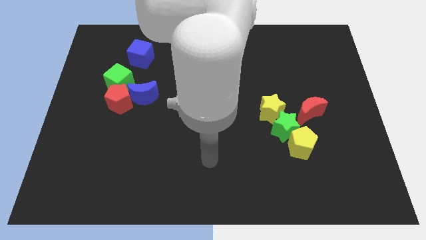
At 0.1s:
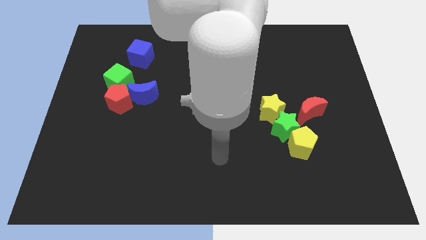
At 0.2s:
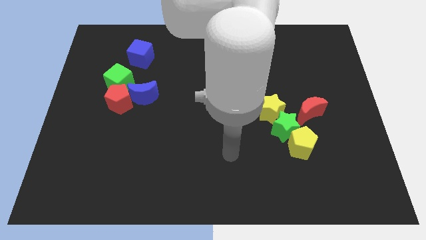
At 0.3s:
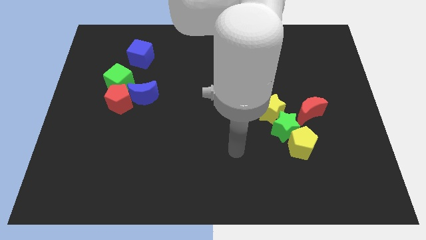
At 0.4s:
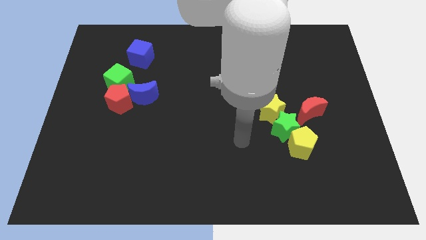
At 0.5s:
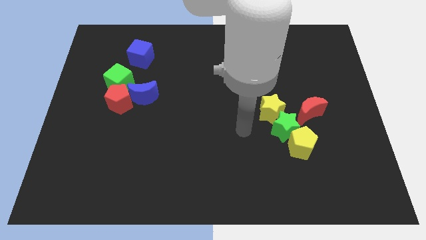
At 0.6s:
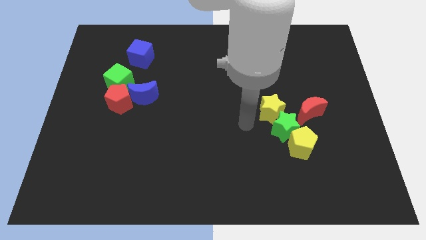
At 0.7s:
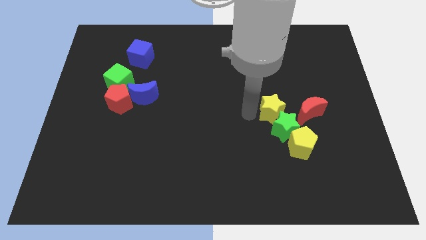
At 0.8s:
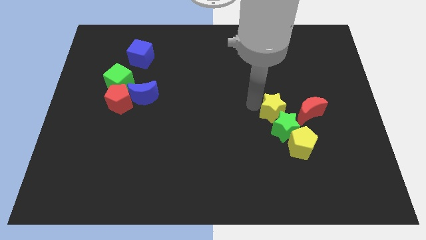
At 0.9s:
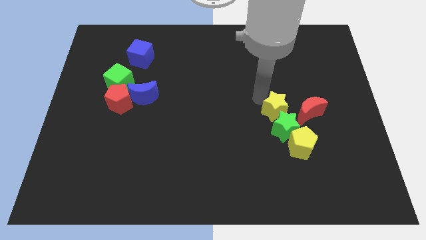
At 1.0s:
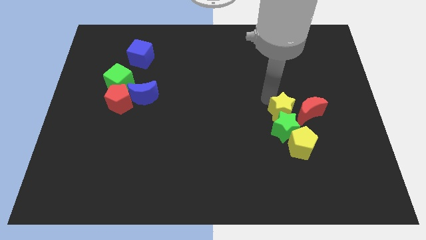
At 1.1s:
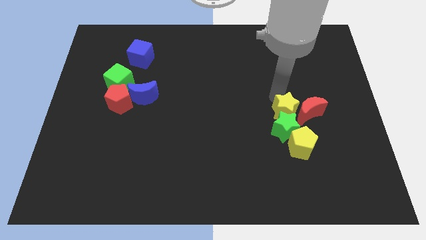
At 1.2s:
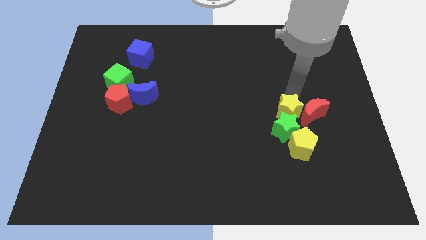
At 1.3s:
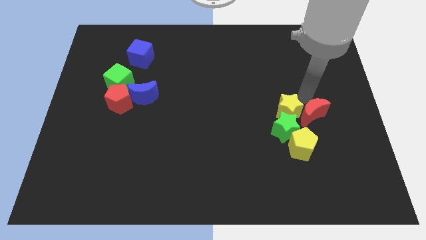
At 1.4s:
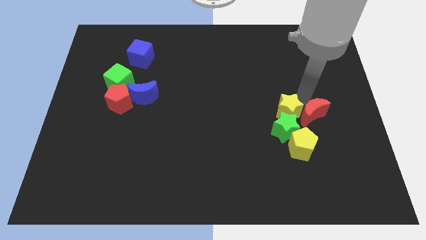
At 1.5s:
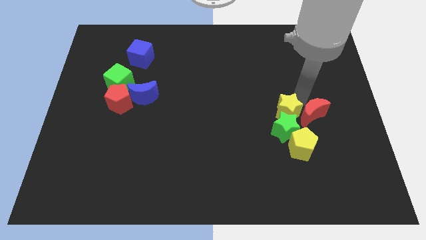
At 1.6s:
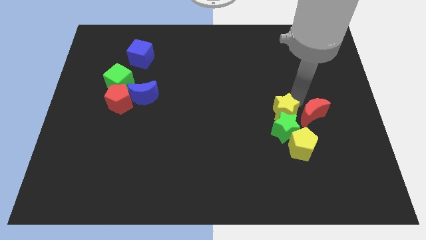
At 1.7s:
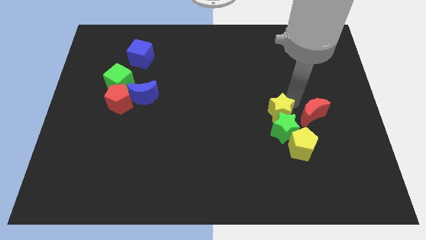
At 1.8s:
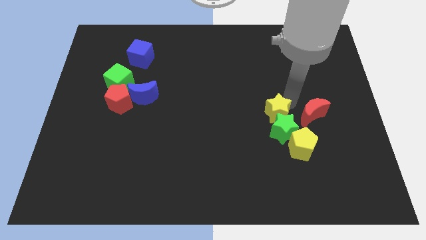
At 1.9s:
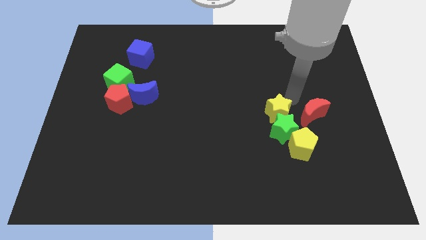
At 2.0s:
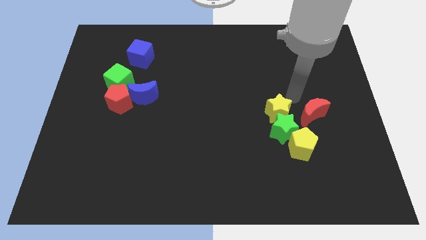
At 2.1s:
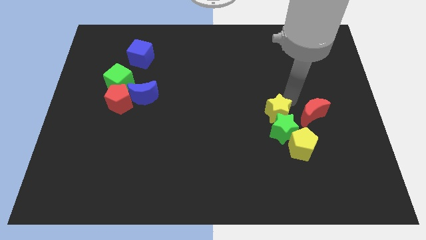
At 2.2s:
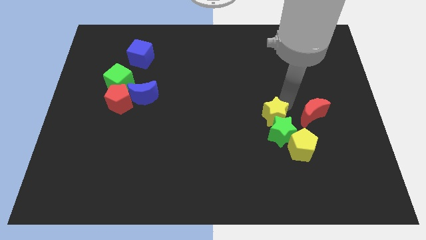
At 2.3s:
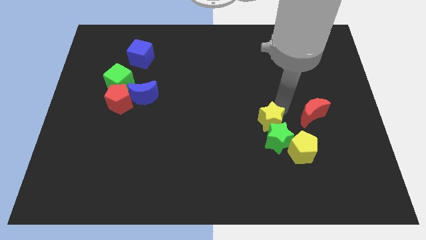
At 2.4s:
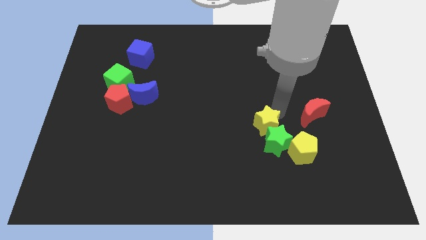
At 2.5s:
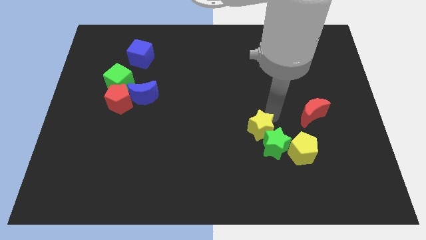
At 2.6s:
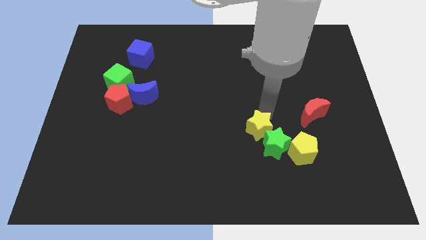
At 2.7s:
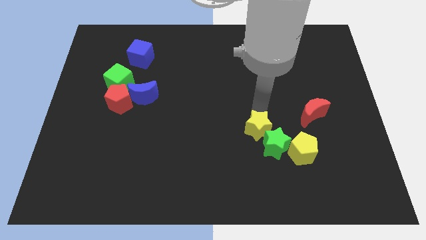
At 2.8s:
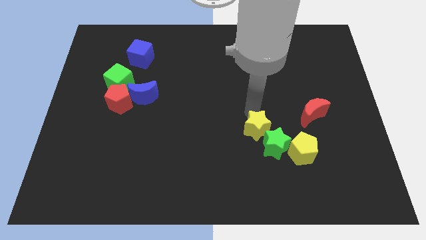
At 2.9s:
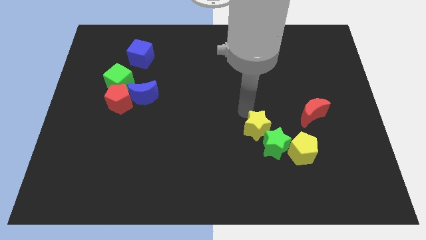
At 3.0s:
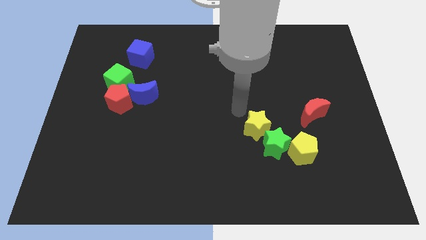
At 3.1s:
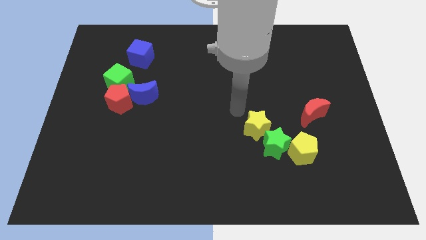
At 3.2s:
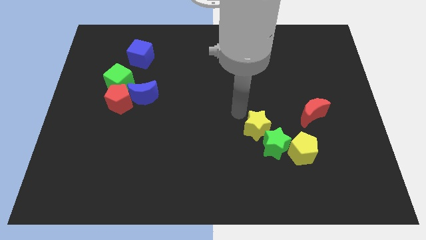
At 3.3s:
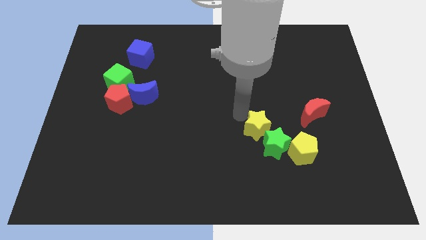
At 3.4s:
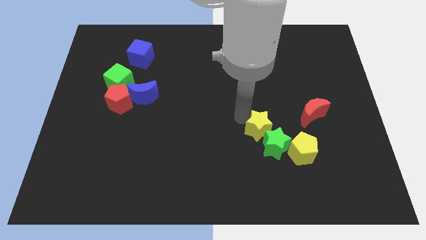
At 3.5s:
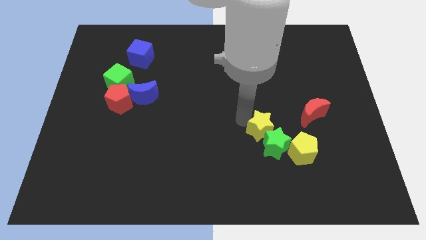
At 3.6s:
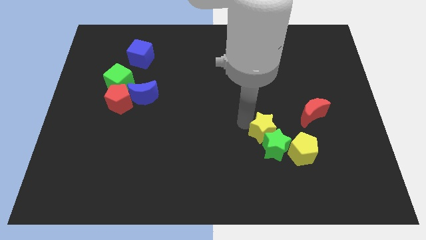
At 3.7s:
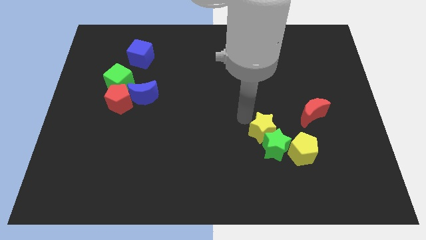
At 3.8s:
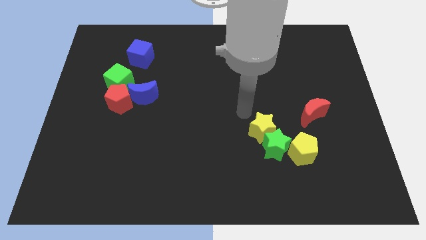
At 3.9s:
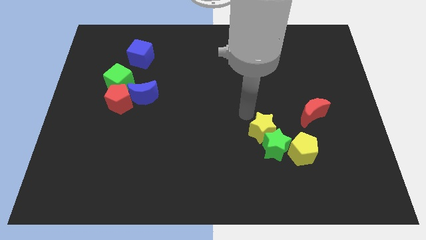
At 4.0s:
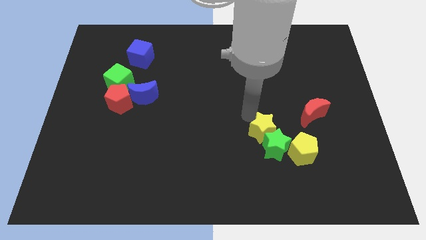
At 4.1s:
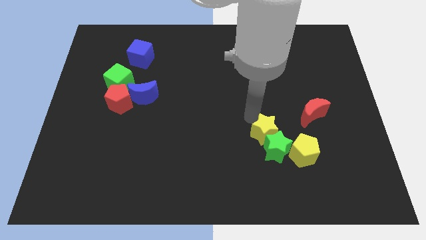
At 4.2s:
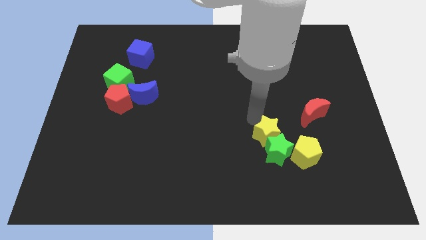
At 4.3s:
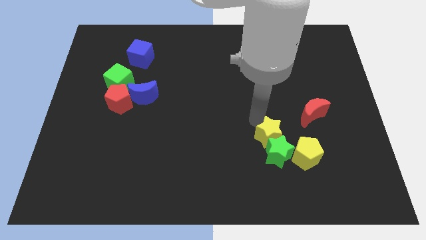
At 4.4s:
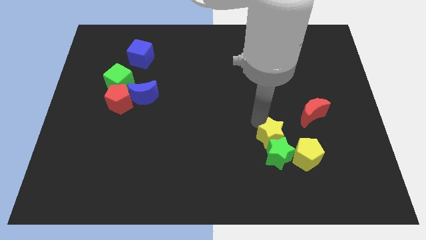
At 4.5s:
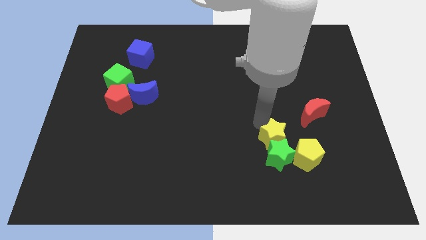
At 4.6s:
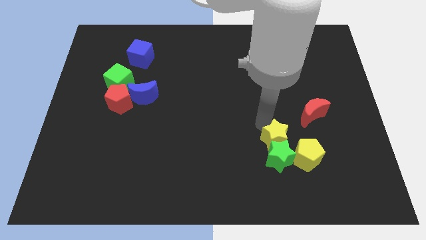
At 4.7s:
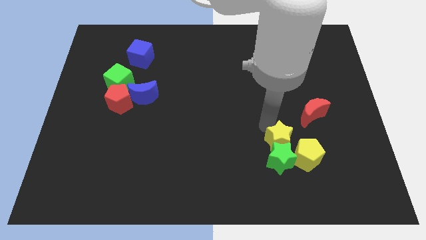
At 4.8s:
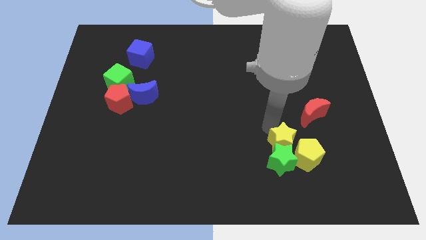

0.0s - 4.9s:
move the yellow star close to the yellow pentagon

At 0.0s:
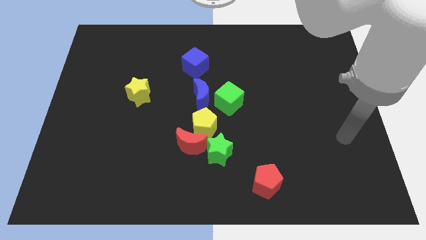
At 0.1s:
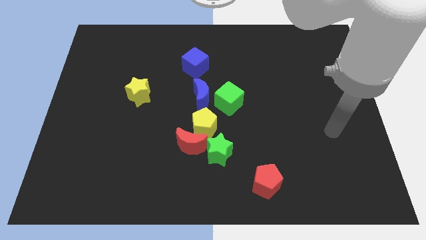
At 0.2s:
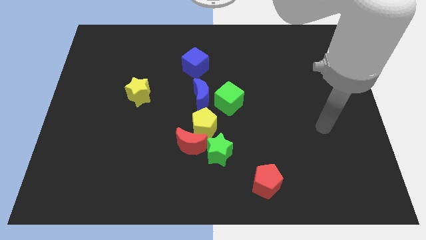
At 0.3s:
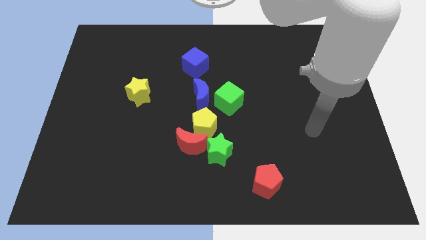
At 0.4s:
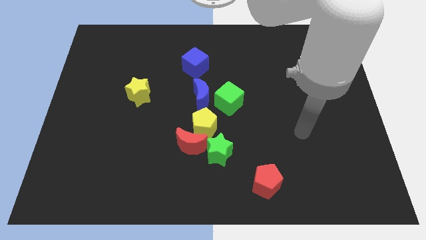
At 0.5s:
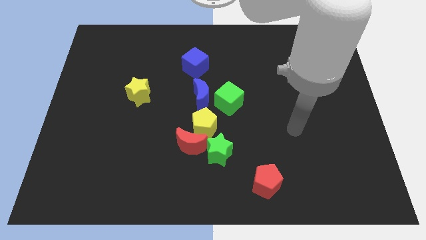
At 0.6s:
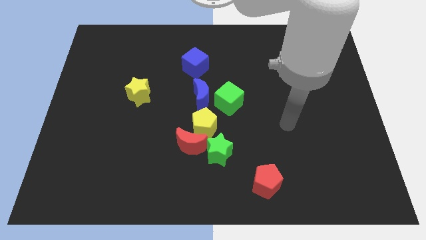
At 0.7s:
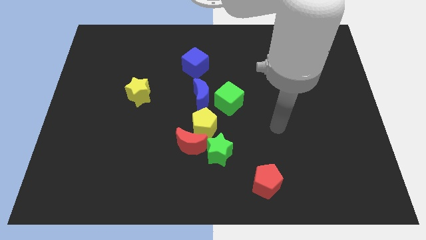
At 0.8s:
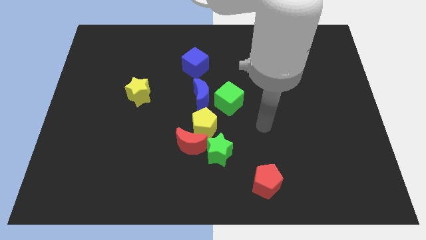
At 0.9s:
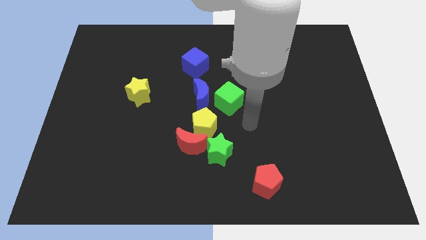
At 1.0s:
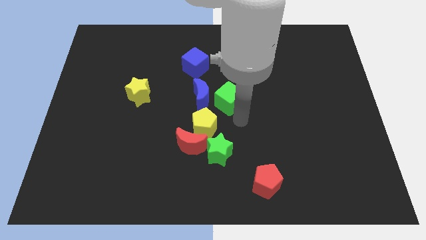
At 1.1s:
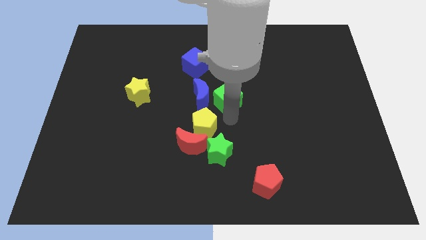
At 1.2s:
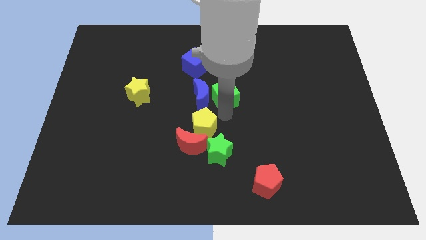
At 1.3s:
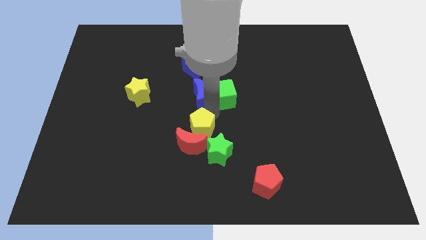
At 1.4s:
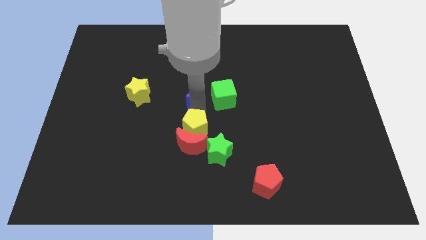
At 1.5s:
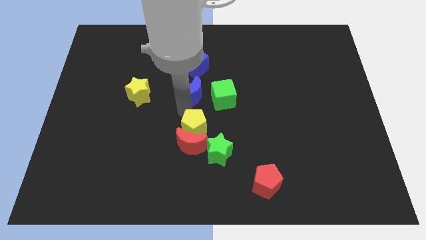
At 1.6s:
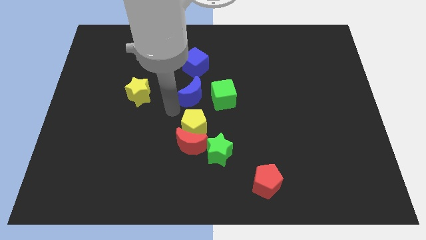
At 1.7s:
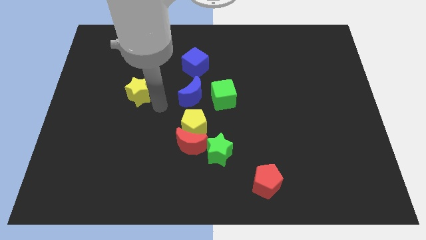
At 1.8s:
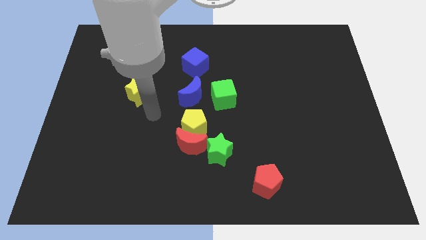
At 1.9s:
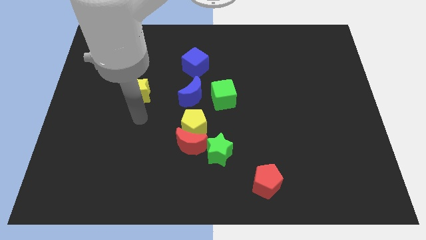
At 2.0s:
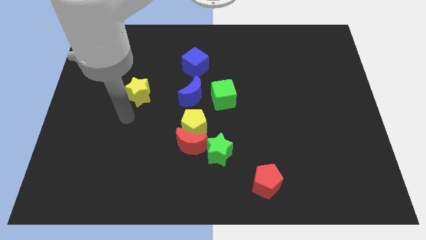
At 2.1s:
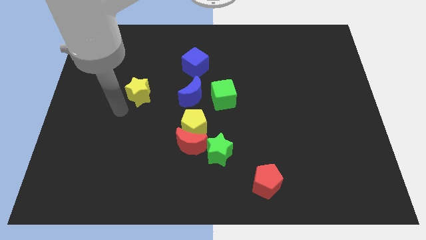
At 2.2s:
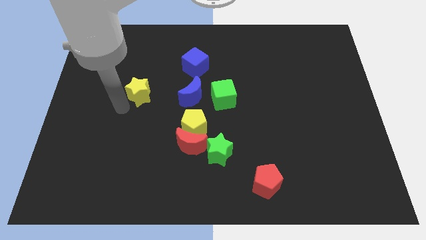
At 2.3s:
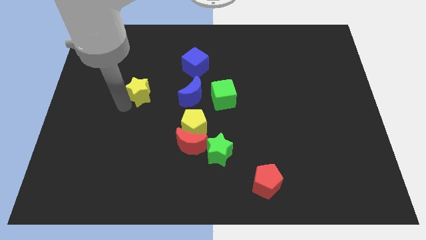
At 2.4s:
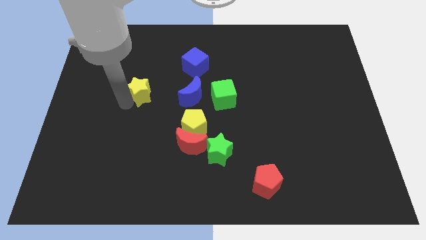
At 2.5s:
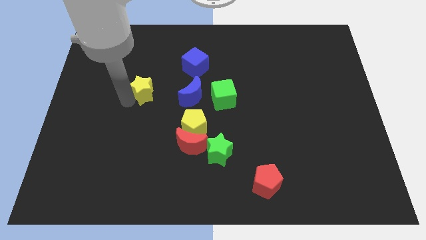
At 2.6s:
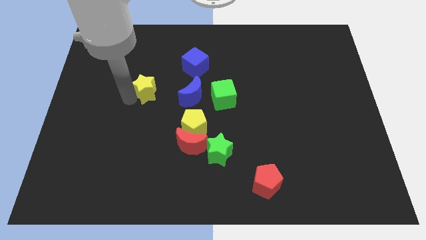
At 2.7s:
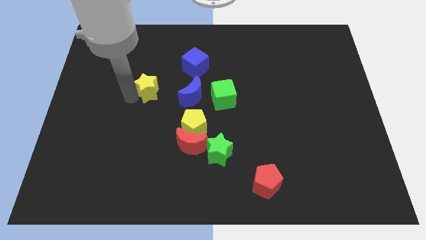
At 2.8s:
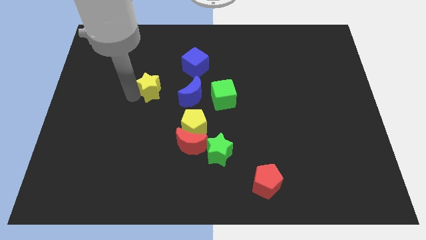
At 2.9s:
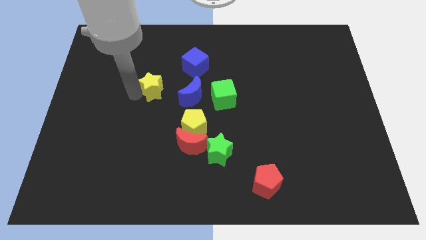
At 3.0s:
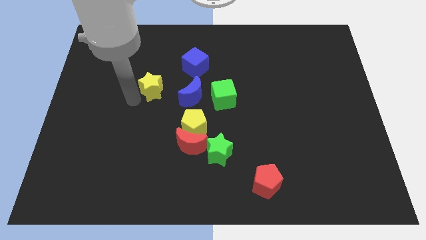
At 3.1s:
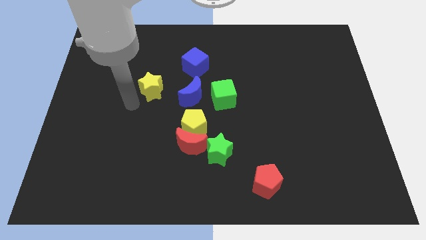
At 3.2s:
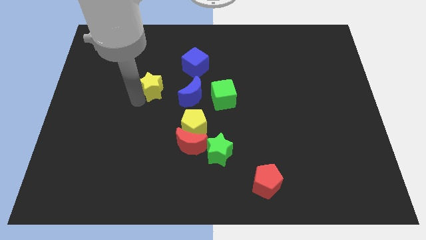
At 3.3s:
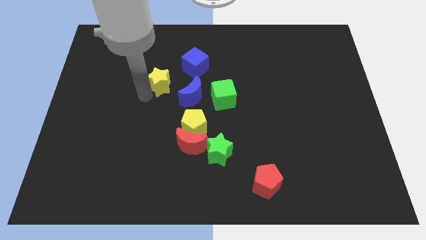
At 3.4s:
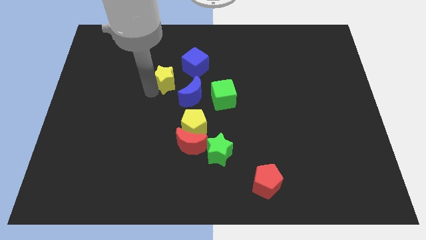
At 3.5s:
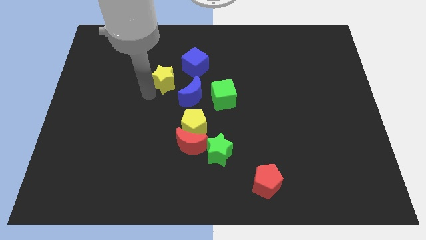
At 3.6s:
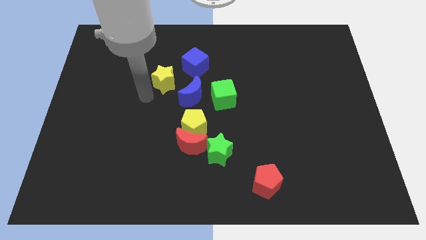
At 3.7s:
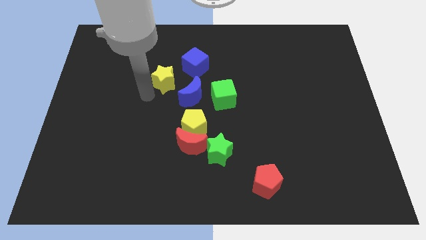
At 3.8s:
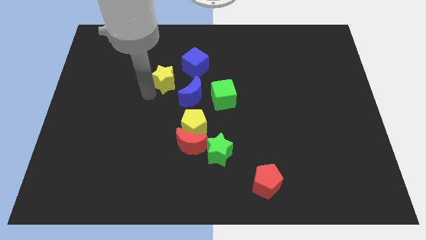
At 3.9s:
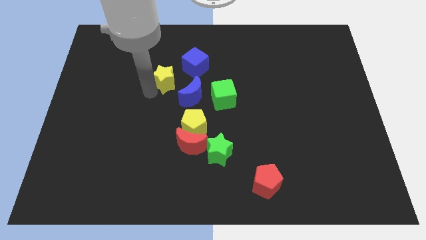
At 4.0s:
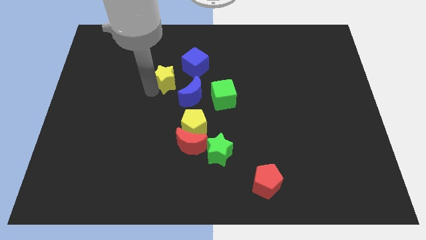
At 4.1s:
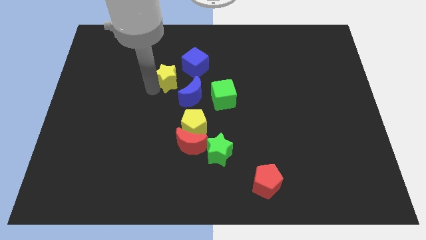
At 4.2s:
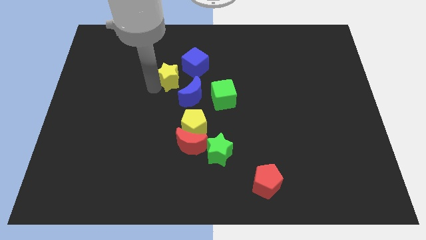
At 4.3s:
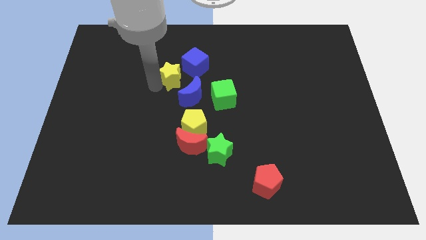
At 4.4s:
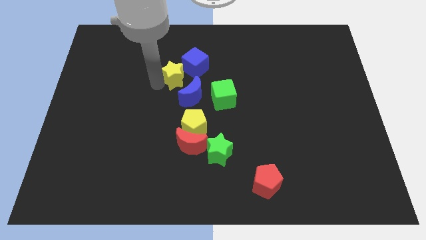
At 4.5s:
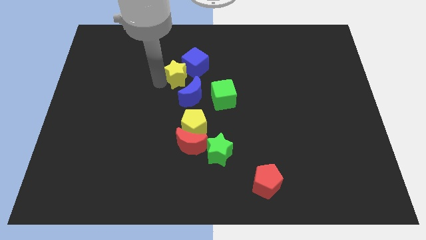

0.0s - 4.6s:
push the yellow star next to the blue cube
